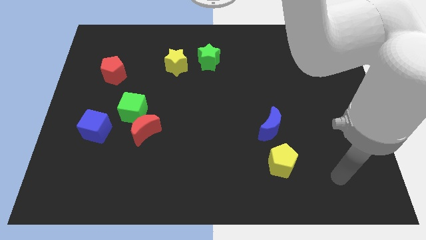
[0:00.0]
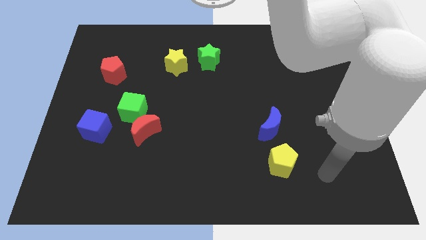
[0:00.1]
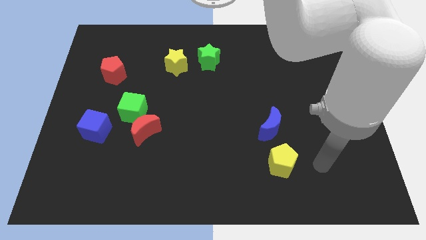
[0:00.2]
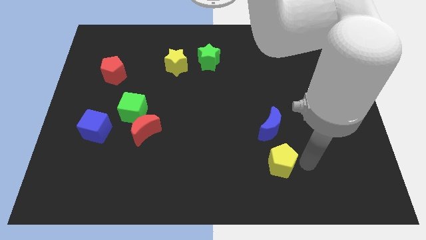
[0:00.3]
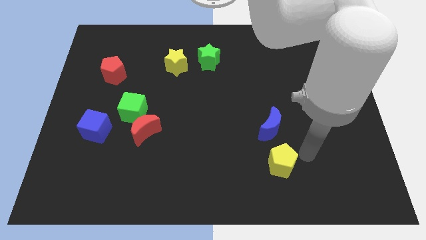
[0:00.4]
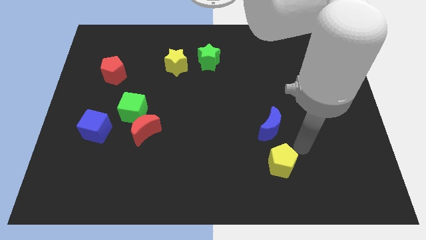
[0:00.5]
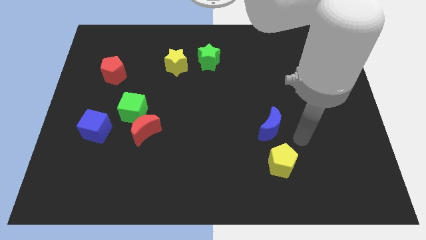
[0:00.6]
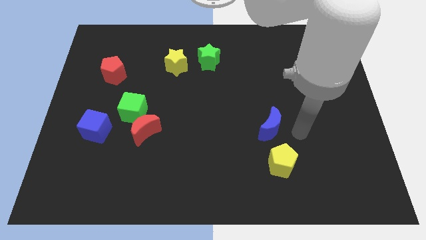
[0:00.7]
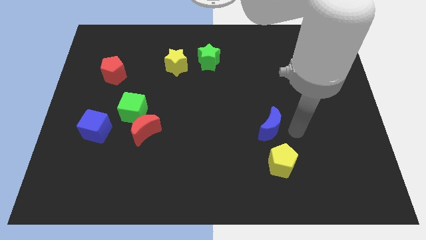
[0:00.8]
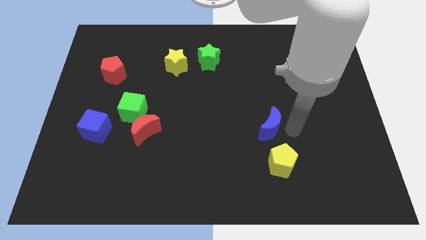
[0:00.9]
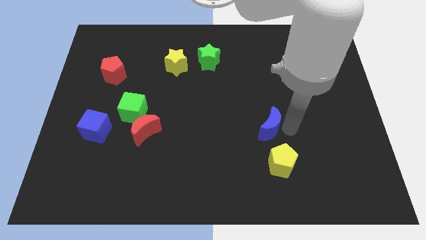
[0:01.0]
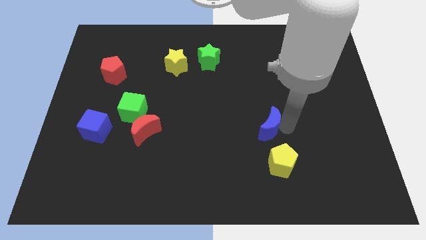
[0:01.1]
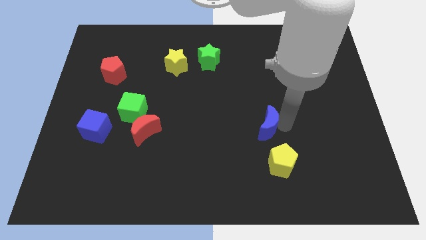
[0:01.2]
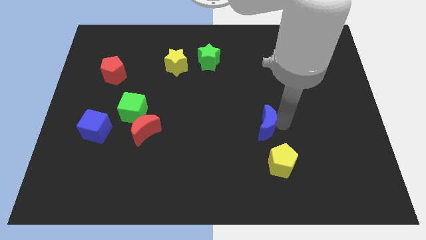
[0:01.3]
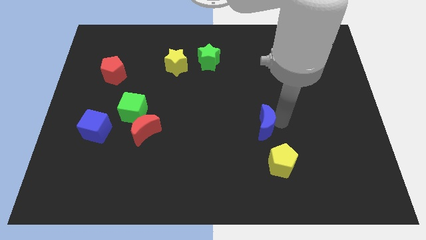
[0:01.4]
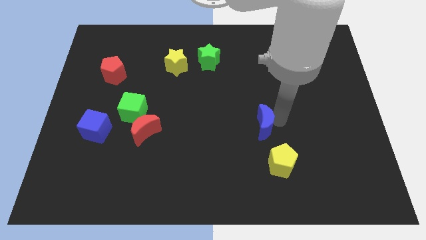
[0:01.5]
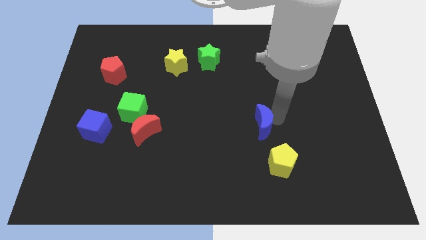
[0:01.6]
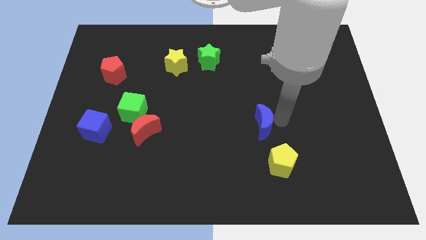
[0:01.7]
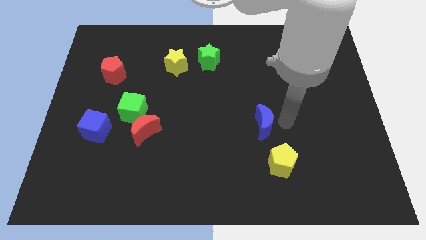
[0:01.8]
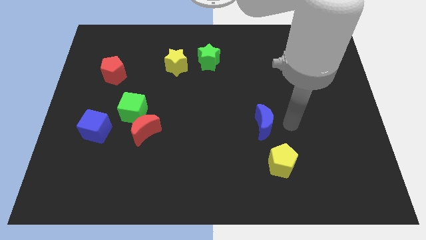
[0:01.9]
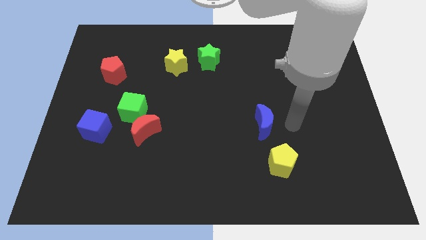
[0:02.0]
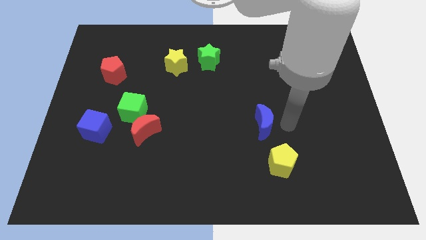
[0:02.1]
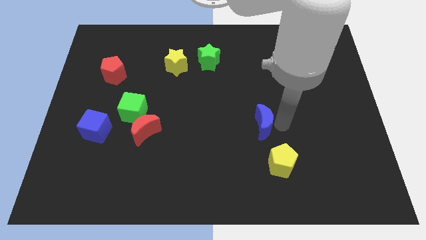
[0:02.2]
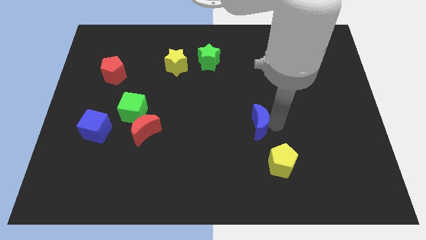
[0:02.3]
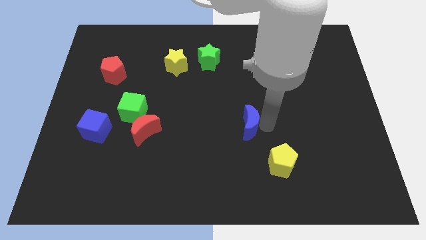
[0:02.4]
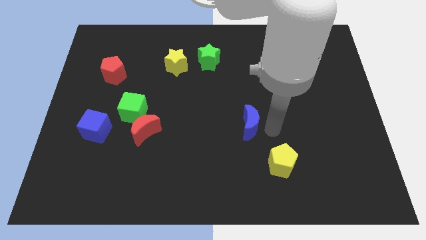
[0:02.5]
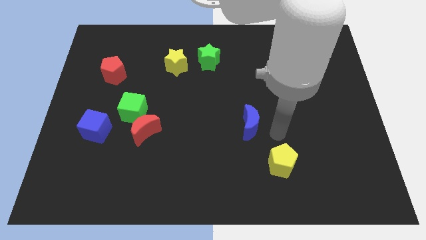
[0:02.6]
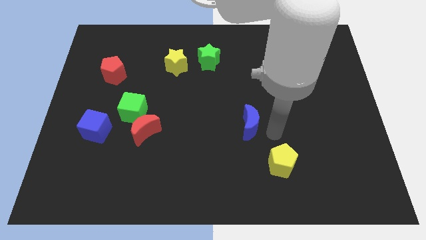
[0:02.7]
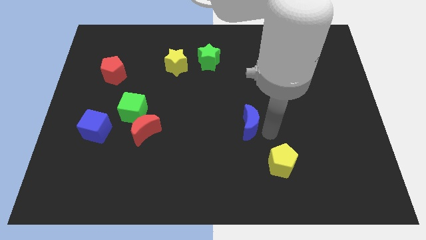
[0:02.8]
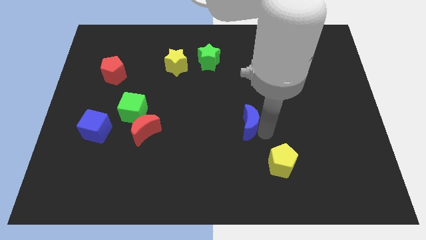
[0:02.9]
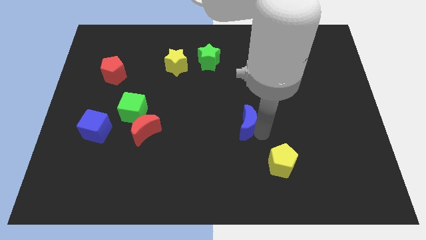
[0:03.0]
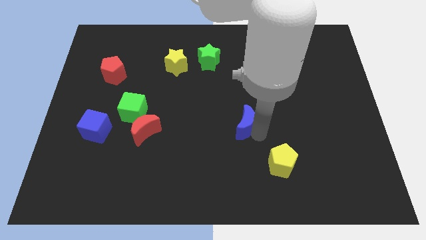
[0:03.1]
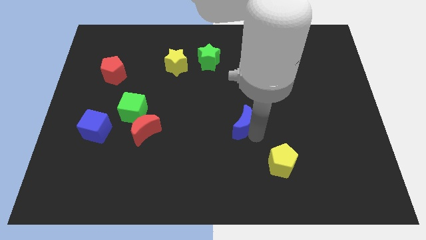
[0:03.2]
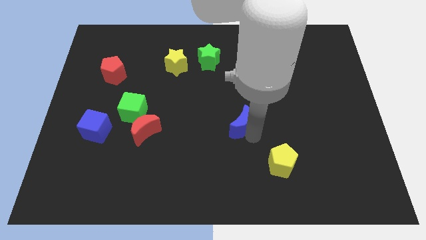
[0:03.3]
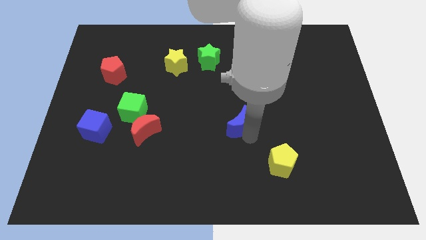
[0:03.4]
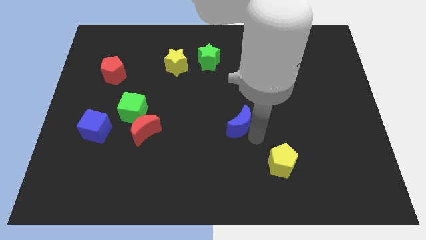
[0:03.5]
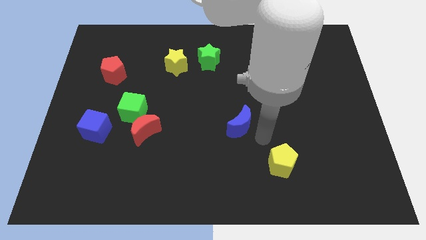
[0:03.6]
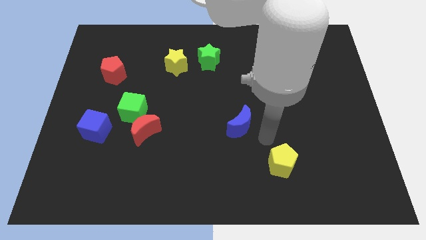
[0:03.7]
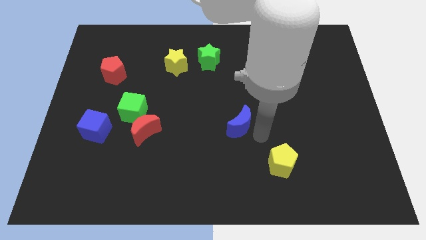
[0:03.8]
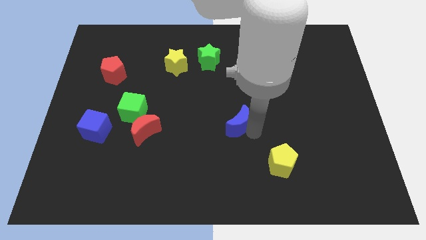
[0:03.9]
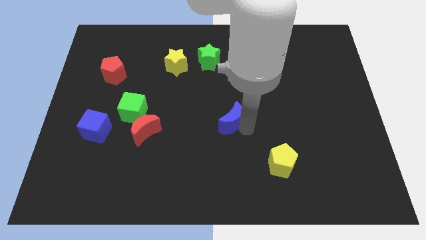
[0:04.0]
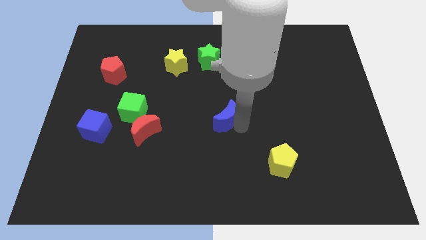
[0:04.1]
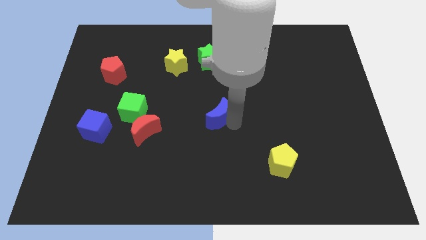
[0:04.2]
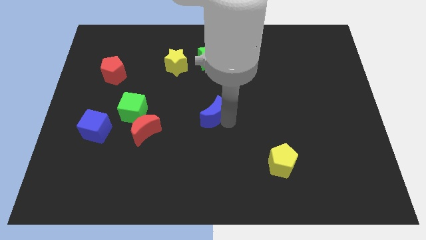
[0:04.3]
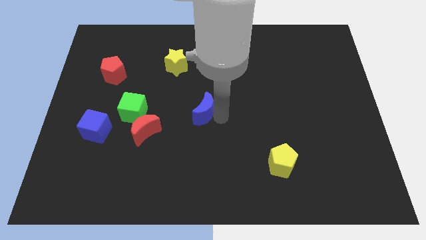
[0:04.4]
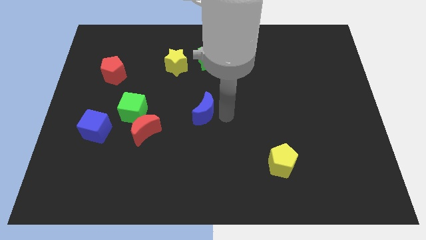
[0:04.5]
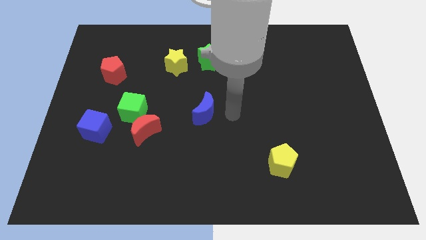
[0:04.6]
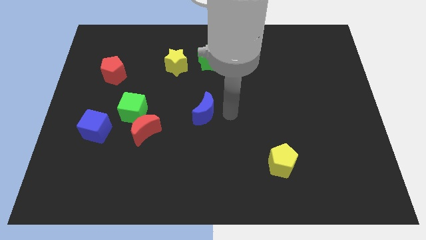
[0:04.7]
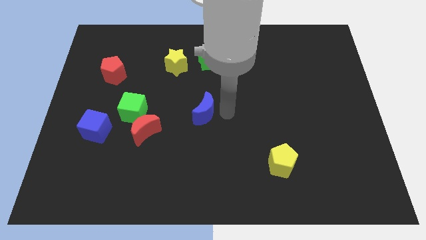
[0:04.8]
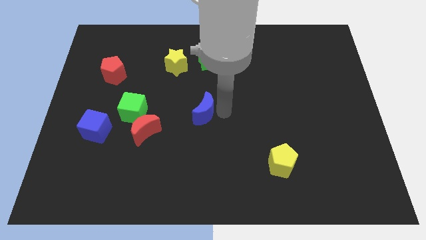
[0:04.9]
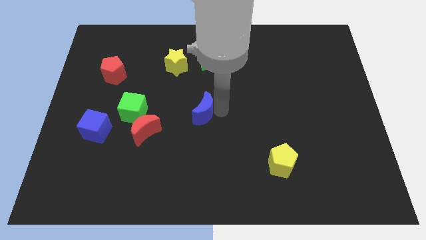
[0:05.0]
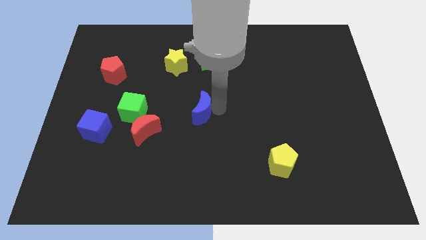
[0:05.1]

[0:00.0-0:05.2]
put the blue moon to the right side of the green cube

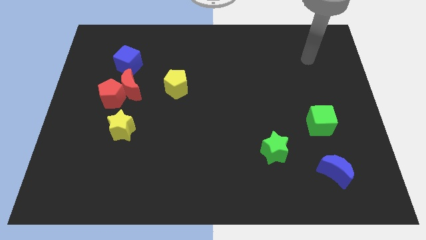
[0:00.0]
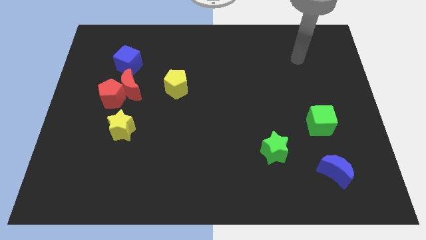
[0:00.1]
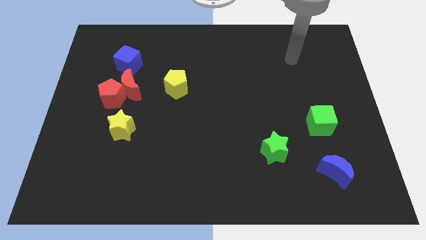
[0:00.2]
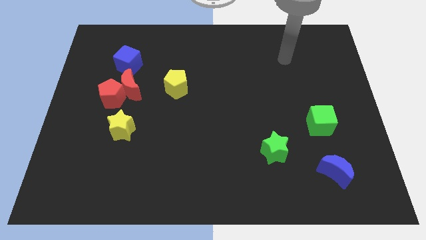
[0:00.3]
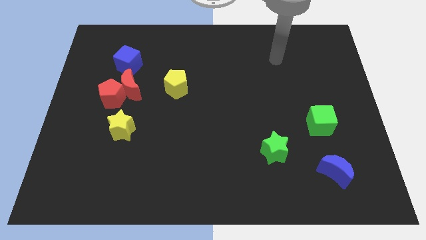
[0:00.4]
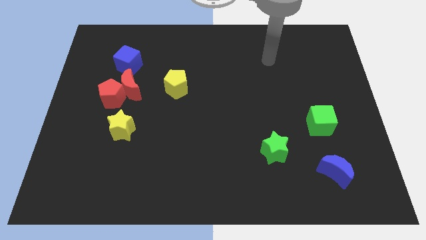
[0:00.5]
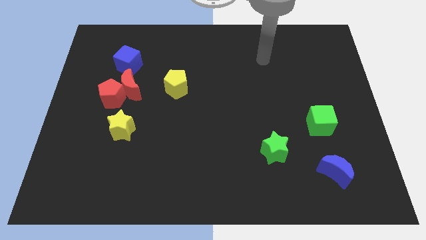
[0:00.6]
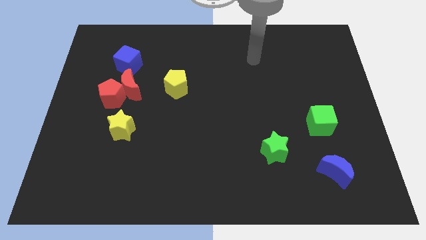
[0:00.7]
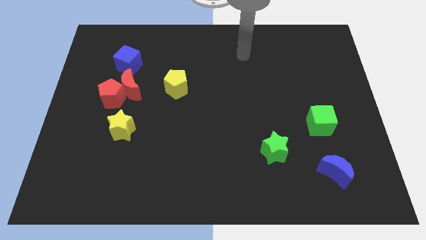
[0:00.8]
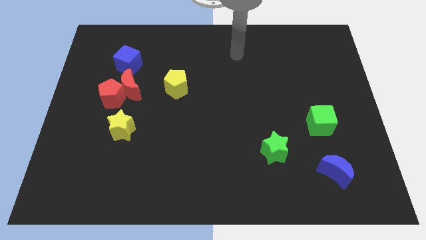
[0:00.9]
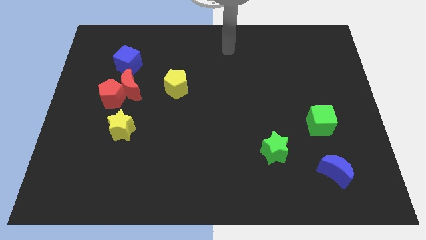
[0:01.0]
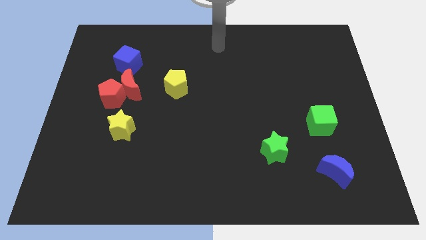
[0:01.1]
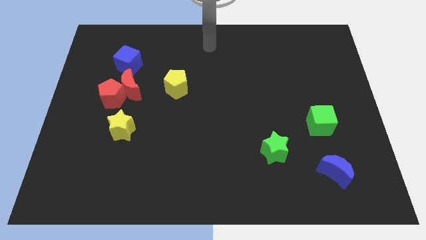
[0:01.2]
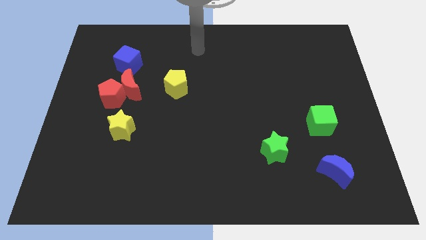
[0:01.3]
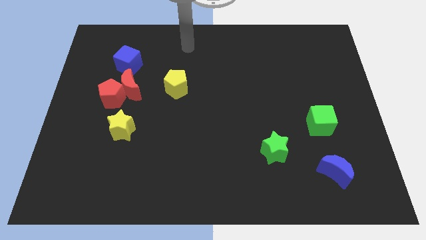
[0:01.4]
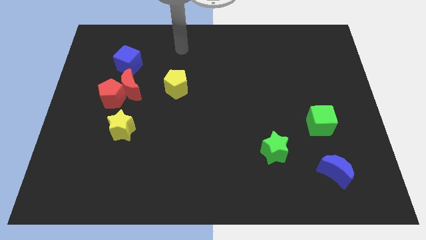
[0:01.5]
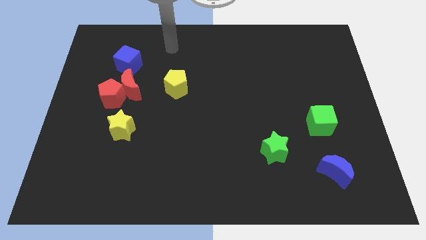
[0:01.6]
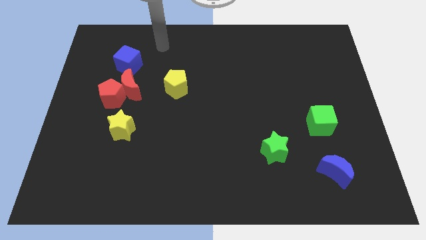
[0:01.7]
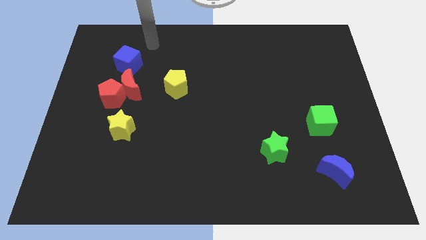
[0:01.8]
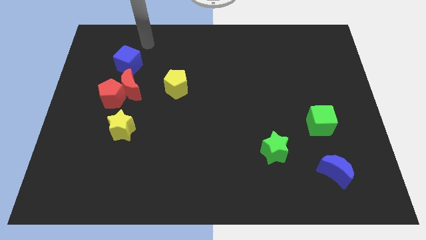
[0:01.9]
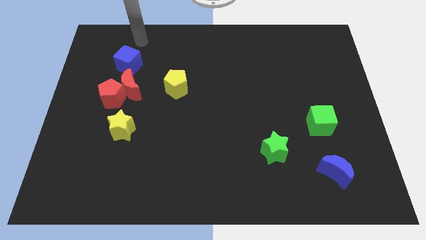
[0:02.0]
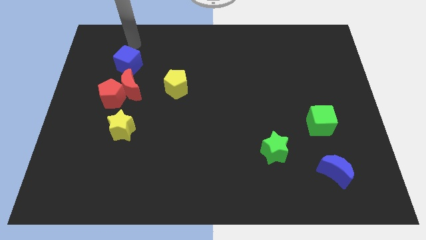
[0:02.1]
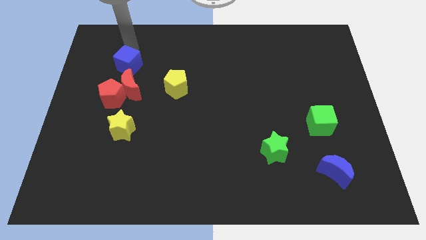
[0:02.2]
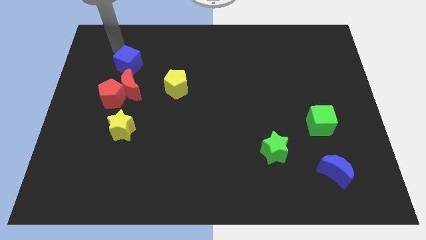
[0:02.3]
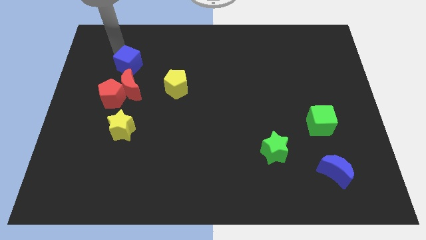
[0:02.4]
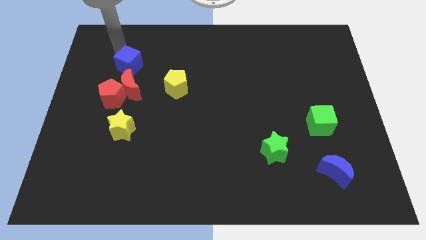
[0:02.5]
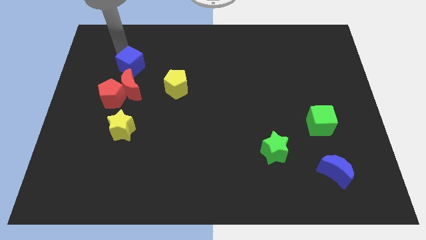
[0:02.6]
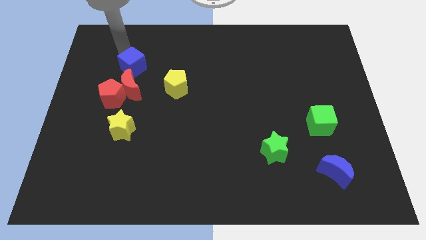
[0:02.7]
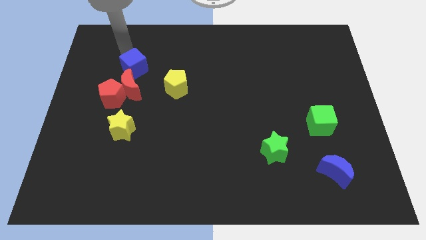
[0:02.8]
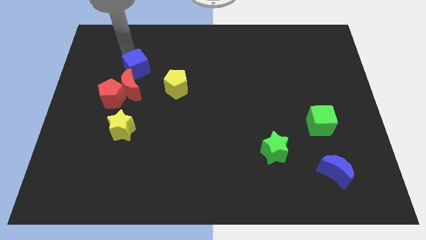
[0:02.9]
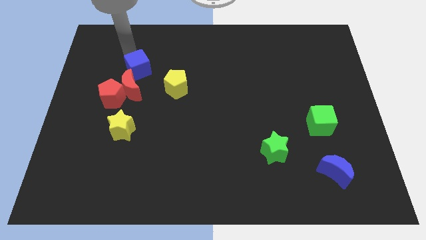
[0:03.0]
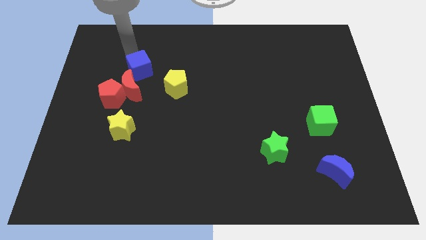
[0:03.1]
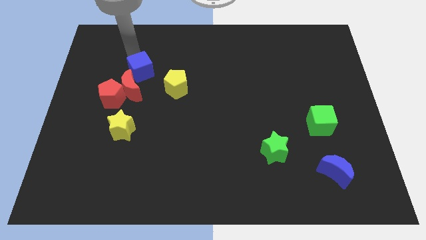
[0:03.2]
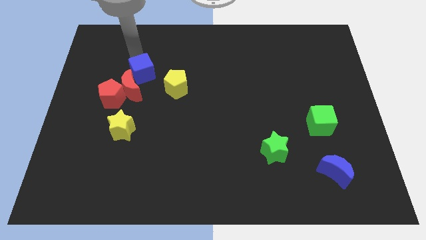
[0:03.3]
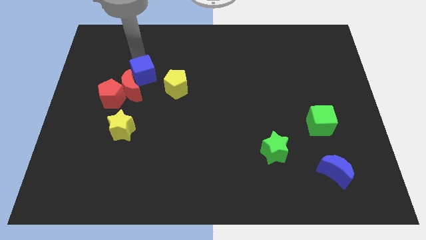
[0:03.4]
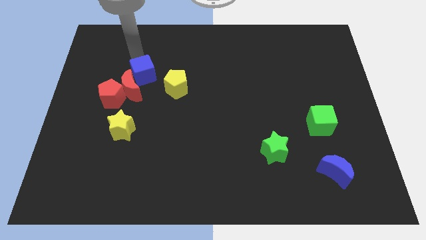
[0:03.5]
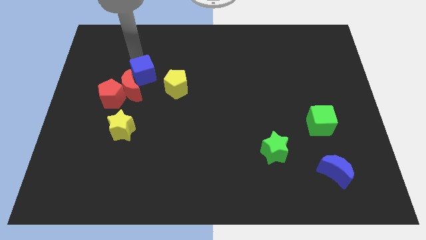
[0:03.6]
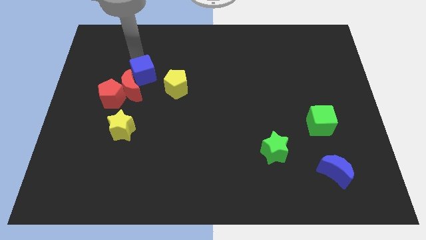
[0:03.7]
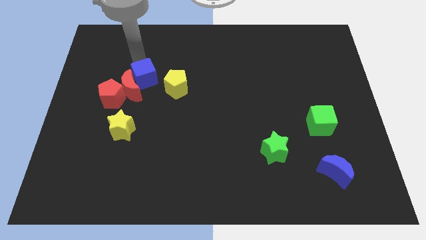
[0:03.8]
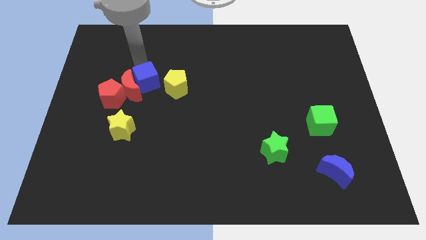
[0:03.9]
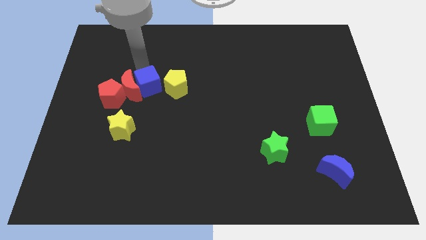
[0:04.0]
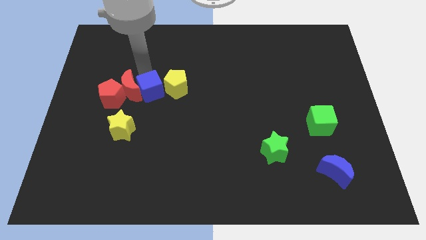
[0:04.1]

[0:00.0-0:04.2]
push the blue cube to the bottom left side of the yellow pentagon
